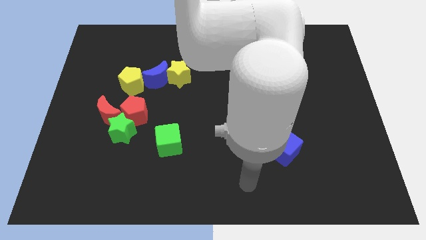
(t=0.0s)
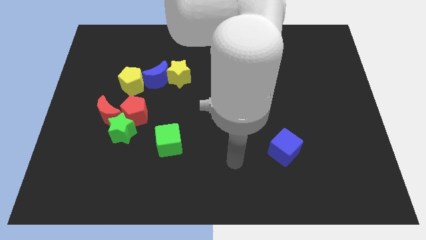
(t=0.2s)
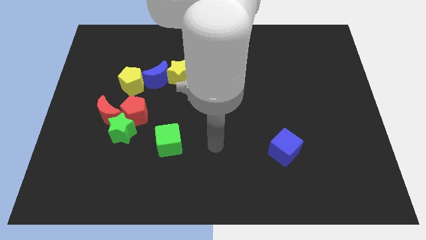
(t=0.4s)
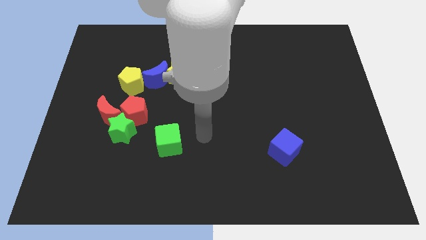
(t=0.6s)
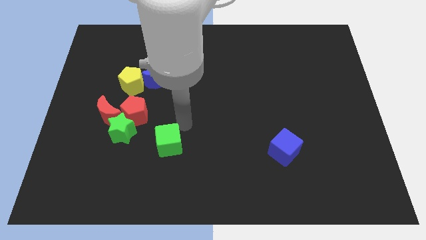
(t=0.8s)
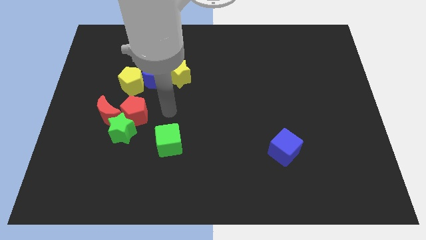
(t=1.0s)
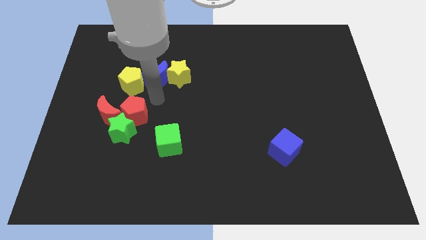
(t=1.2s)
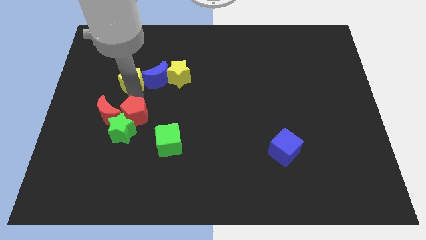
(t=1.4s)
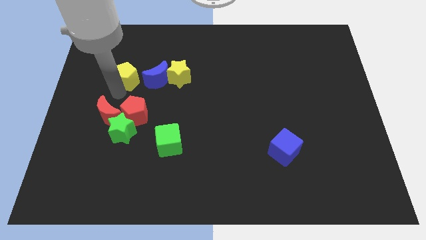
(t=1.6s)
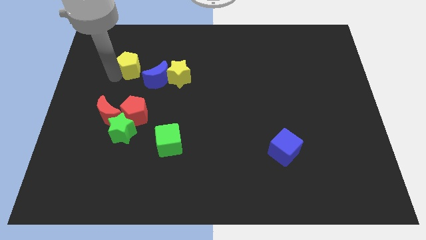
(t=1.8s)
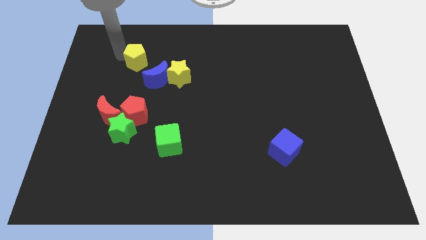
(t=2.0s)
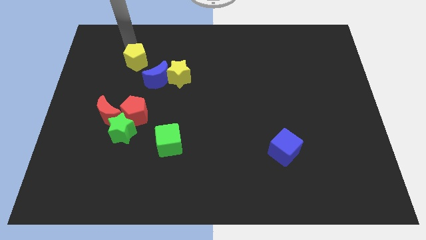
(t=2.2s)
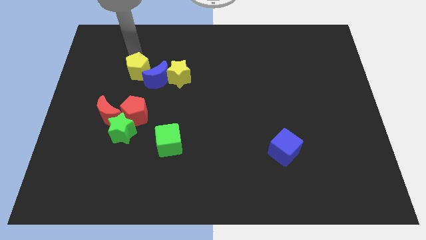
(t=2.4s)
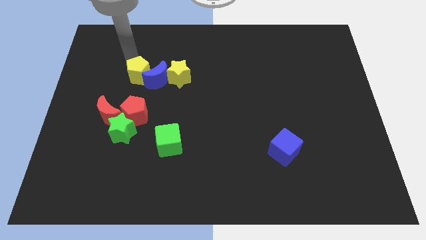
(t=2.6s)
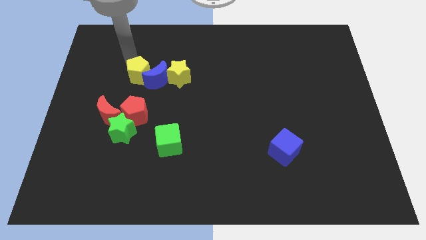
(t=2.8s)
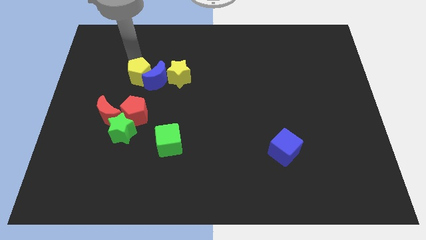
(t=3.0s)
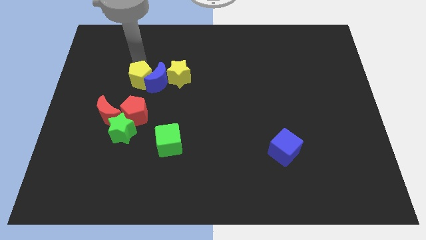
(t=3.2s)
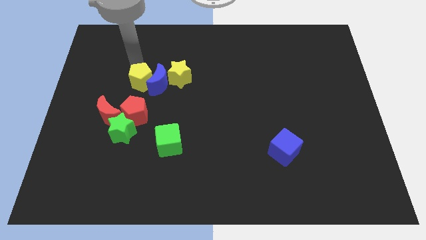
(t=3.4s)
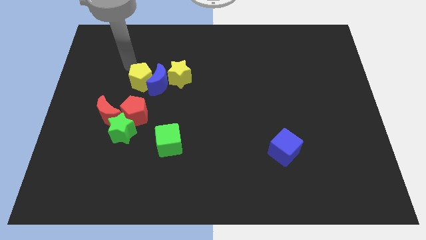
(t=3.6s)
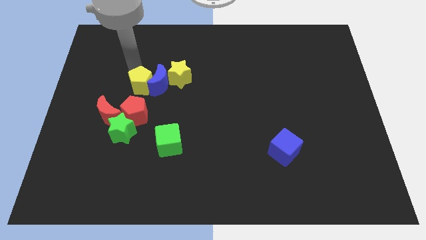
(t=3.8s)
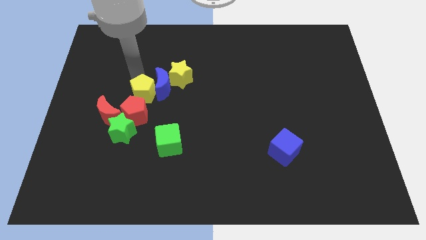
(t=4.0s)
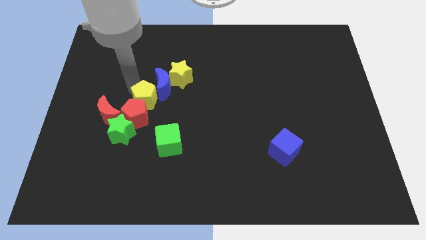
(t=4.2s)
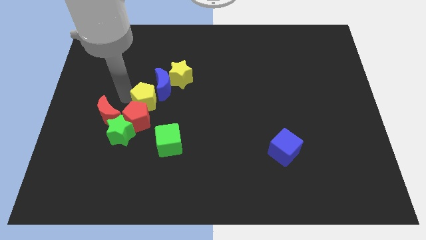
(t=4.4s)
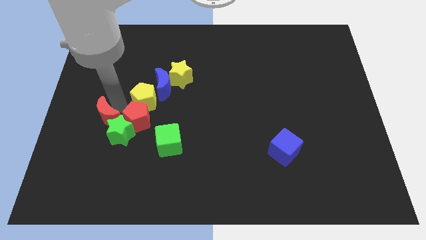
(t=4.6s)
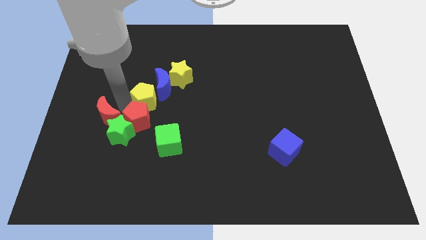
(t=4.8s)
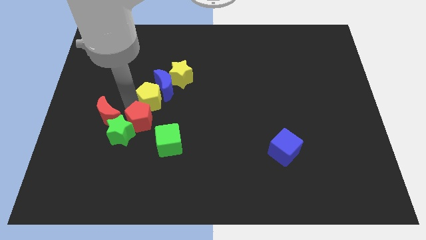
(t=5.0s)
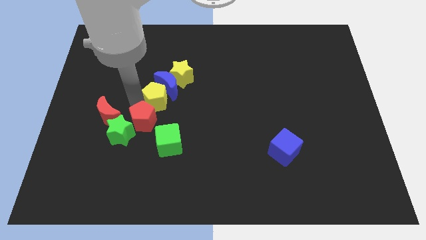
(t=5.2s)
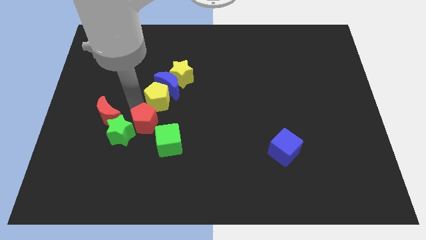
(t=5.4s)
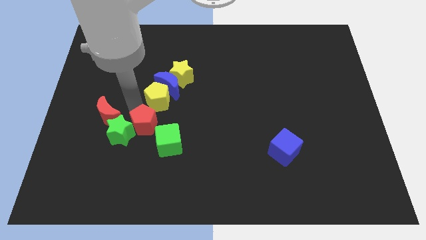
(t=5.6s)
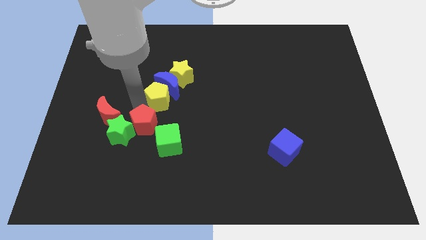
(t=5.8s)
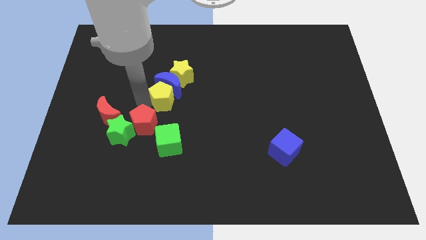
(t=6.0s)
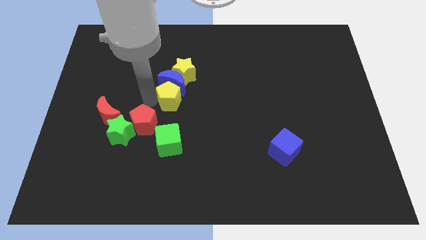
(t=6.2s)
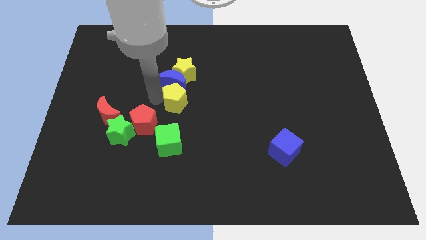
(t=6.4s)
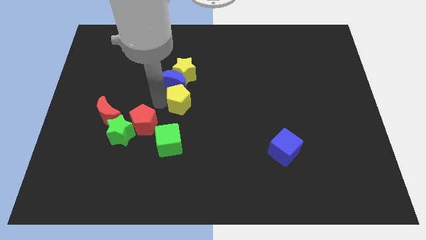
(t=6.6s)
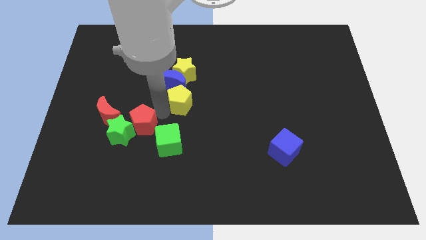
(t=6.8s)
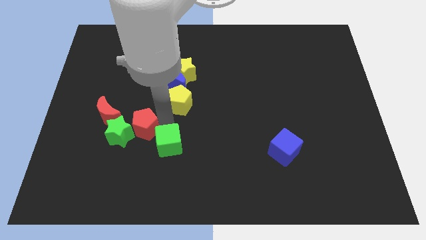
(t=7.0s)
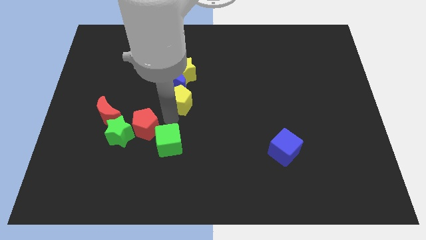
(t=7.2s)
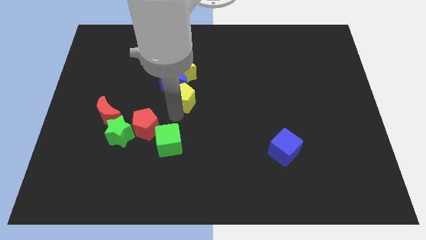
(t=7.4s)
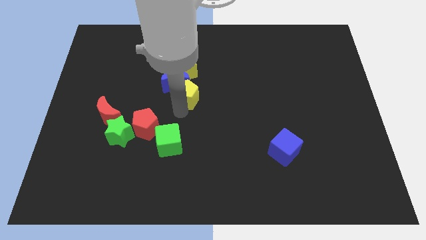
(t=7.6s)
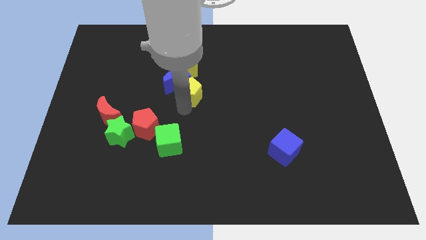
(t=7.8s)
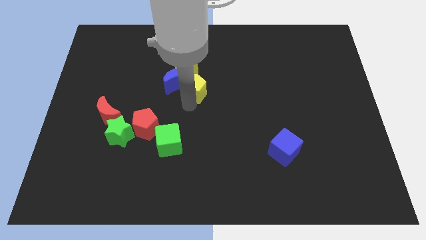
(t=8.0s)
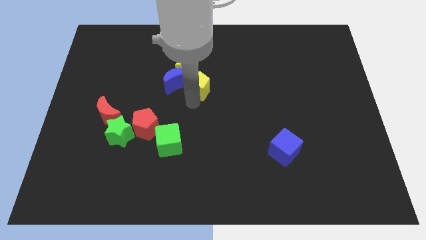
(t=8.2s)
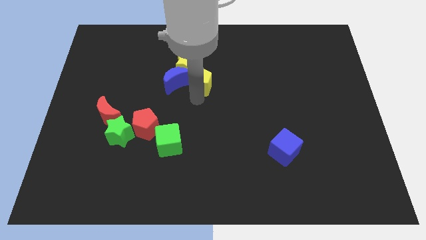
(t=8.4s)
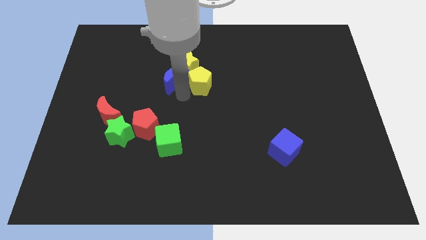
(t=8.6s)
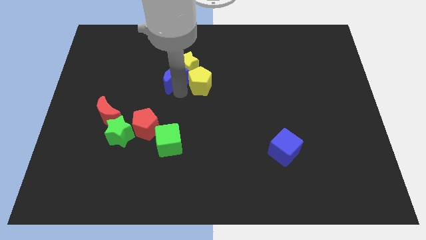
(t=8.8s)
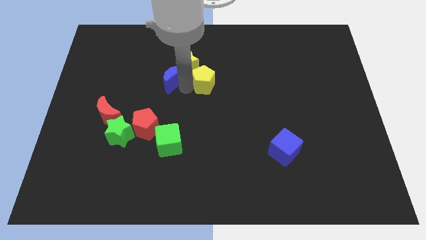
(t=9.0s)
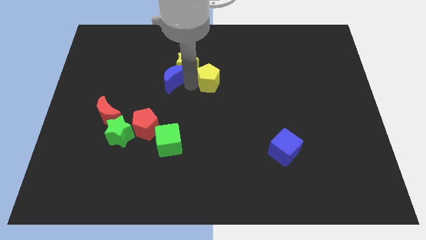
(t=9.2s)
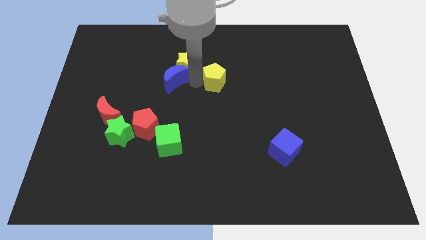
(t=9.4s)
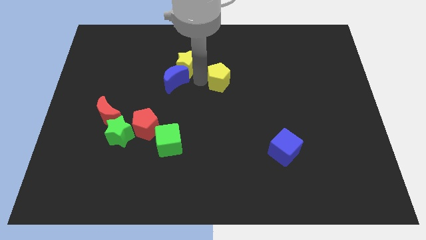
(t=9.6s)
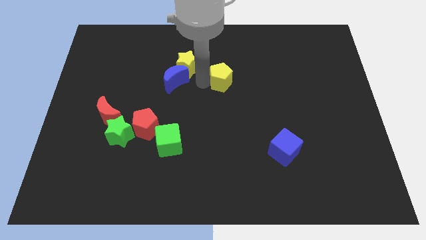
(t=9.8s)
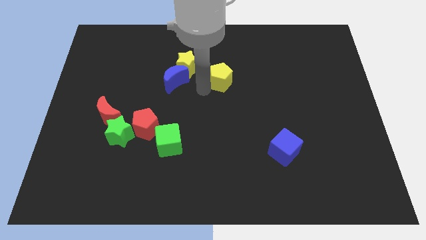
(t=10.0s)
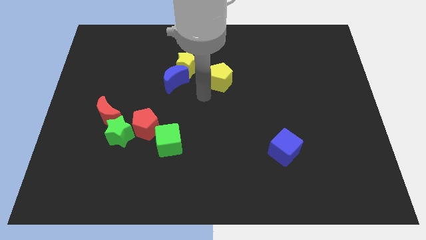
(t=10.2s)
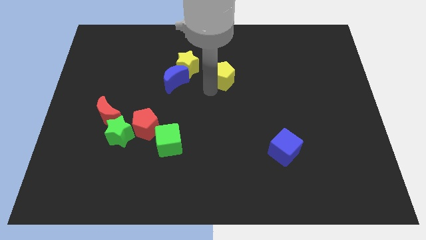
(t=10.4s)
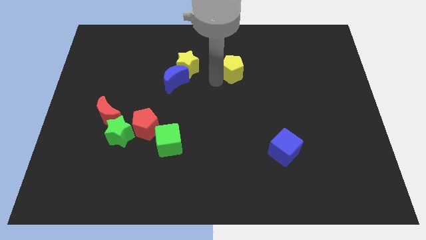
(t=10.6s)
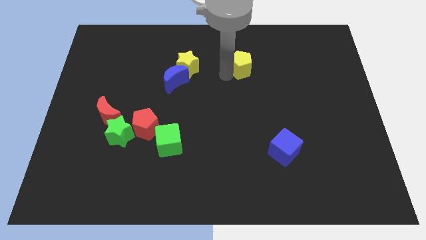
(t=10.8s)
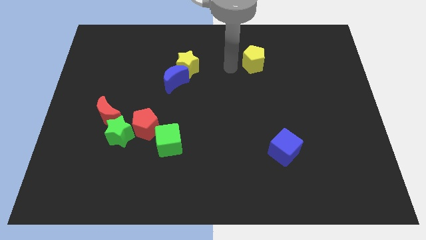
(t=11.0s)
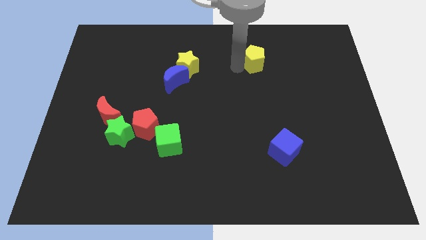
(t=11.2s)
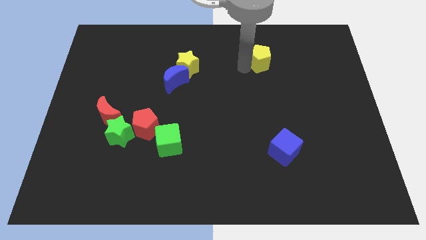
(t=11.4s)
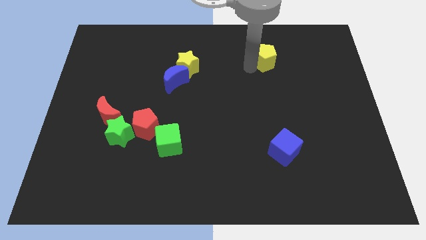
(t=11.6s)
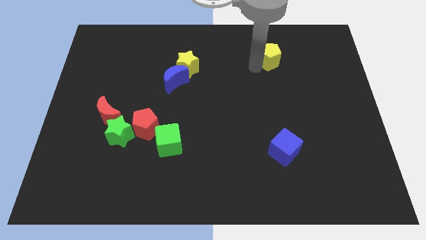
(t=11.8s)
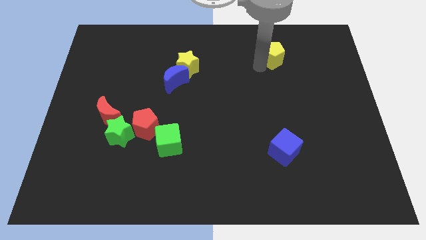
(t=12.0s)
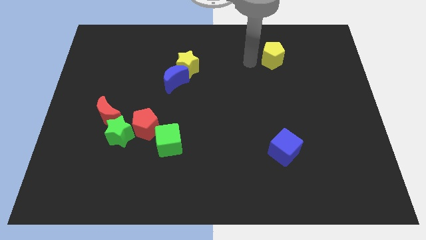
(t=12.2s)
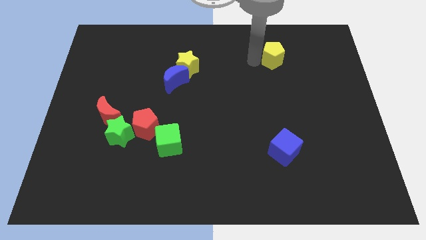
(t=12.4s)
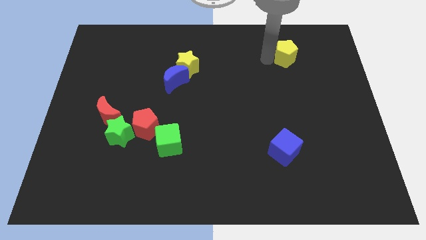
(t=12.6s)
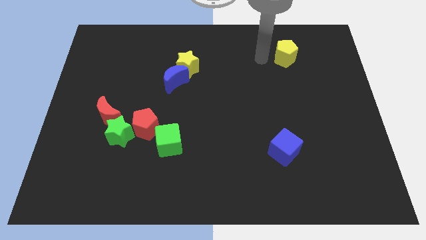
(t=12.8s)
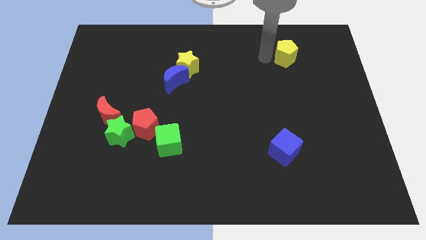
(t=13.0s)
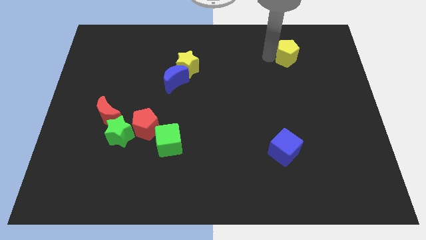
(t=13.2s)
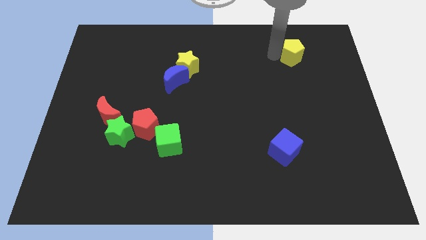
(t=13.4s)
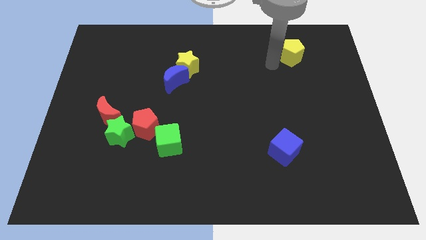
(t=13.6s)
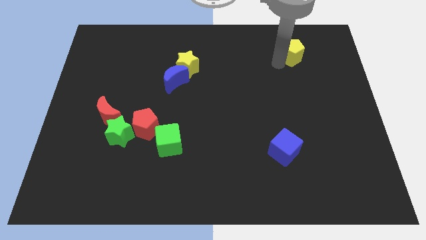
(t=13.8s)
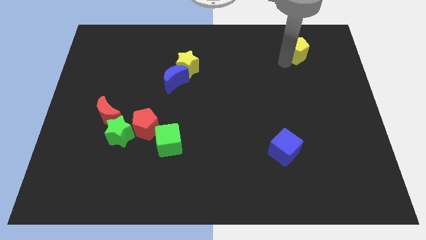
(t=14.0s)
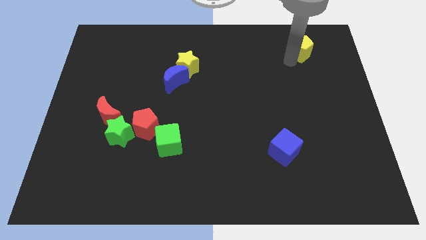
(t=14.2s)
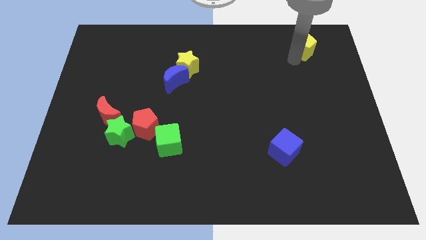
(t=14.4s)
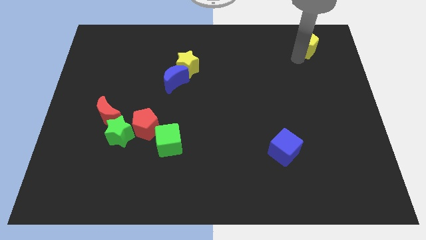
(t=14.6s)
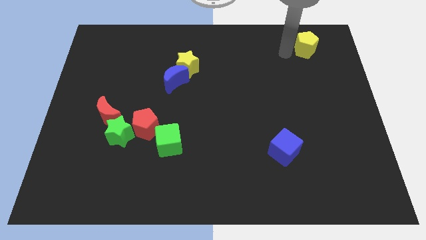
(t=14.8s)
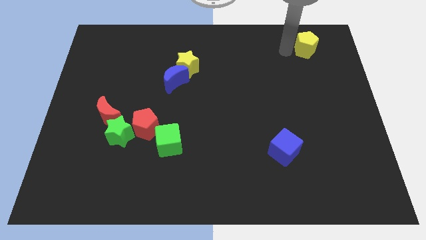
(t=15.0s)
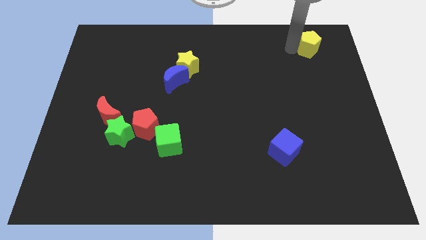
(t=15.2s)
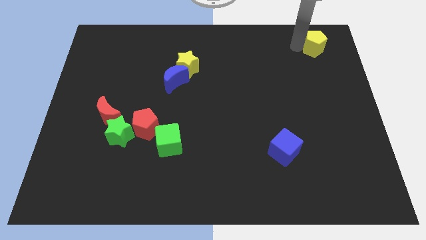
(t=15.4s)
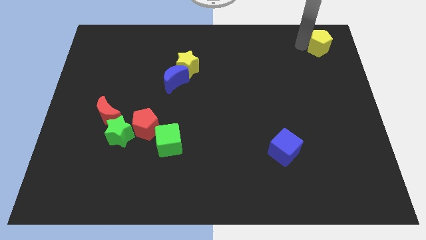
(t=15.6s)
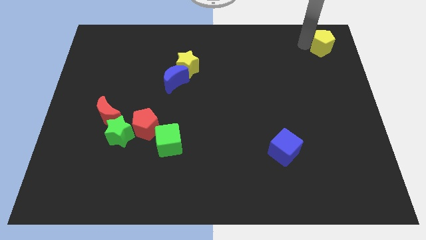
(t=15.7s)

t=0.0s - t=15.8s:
push the yellow pentagon to the top right corner
